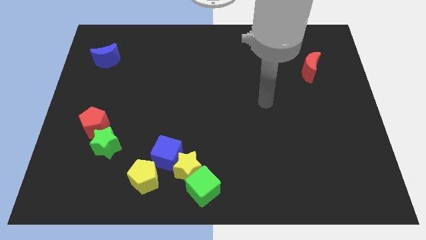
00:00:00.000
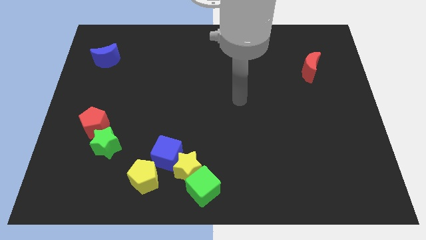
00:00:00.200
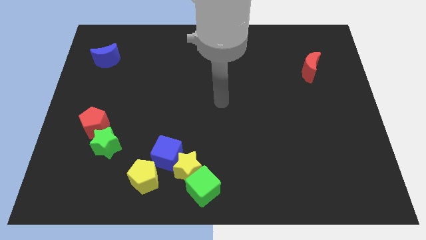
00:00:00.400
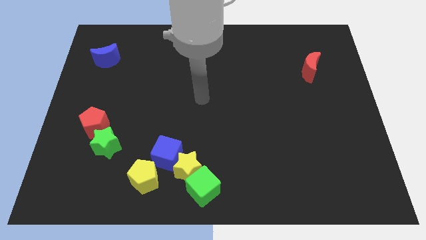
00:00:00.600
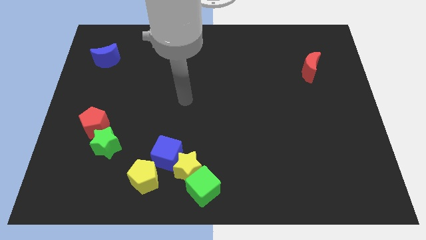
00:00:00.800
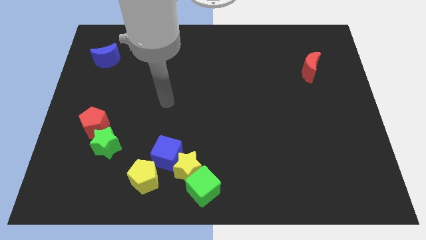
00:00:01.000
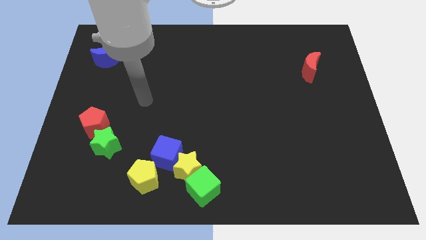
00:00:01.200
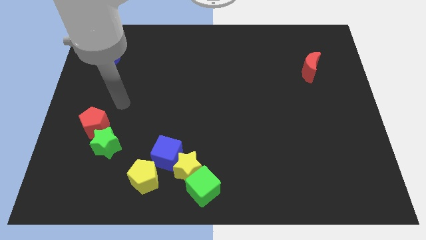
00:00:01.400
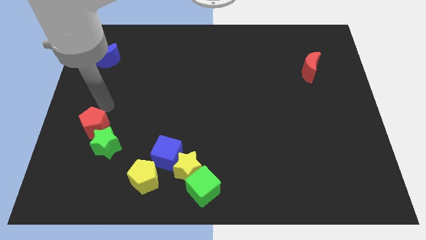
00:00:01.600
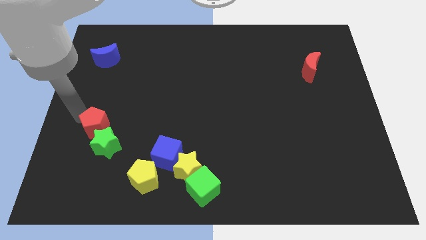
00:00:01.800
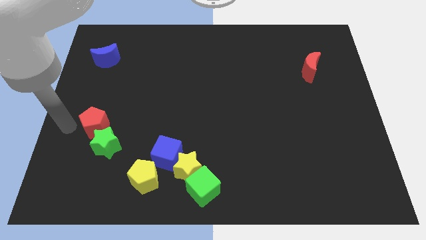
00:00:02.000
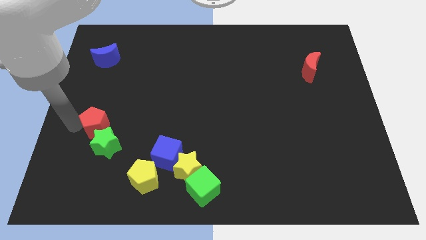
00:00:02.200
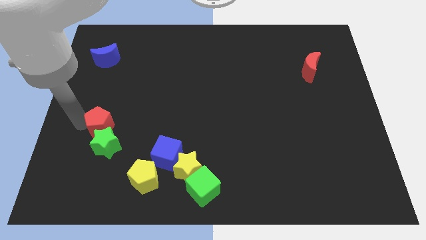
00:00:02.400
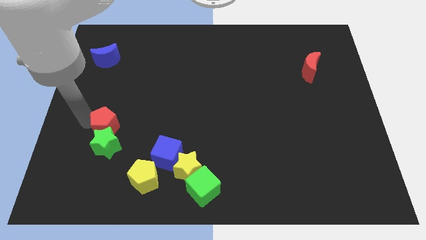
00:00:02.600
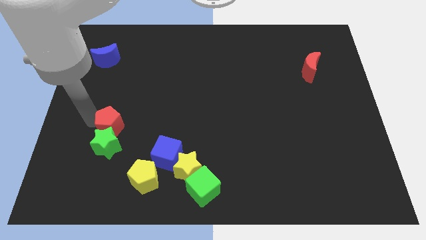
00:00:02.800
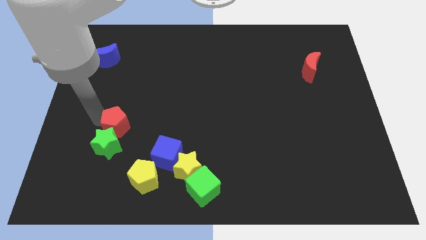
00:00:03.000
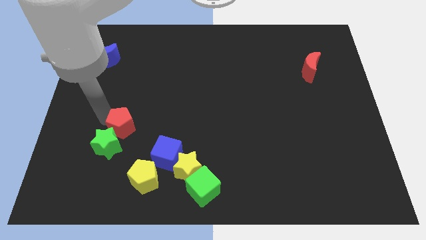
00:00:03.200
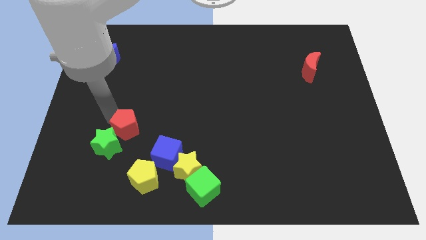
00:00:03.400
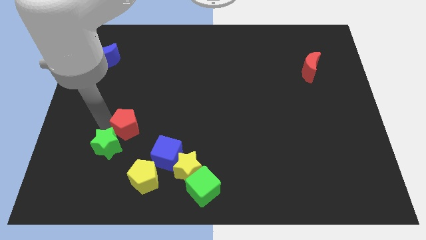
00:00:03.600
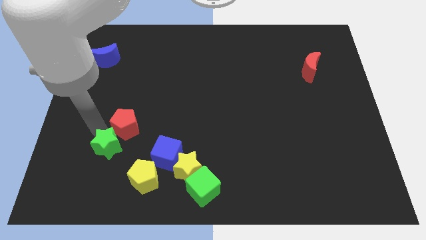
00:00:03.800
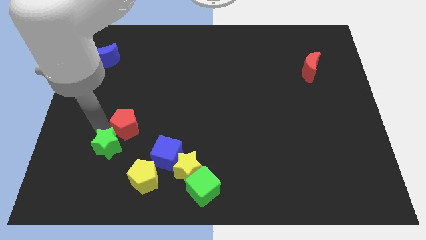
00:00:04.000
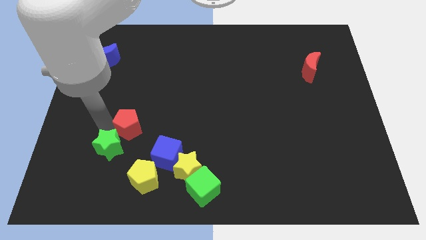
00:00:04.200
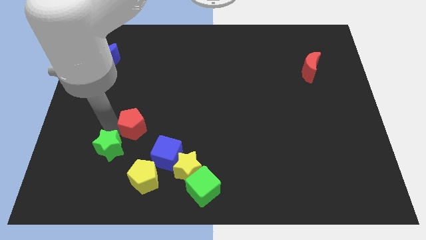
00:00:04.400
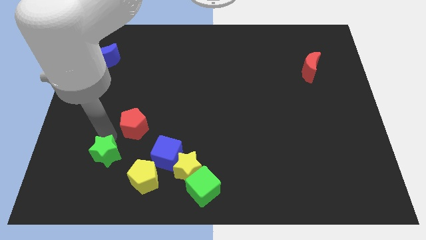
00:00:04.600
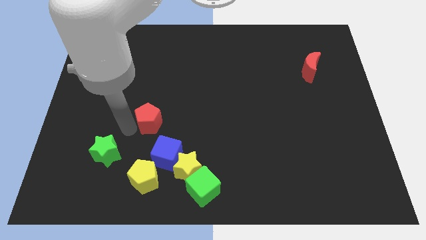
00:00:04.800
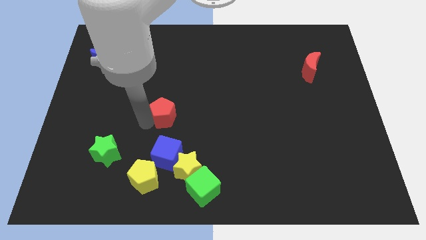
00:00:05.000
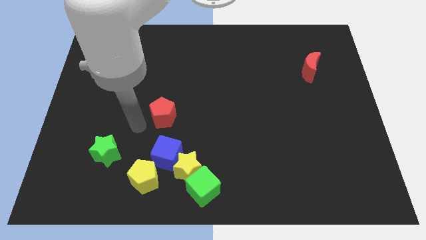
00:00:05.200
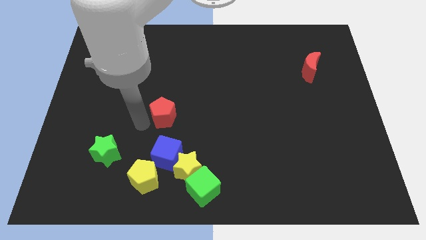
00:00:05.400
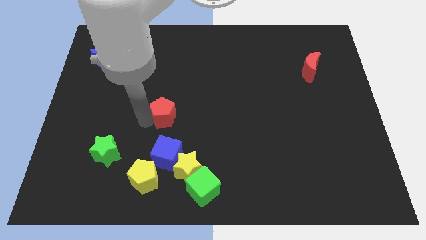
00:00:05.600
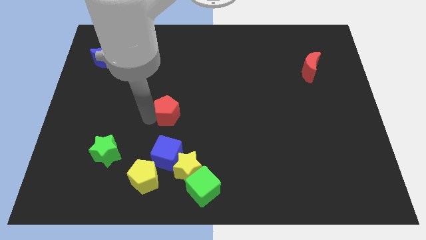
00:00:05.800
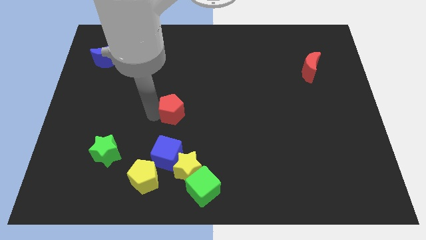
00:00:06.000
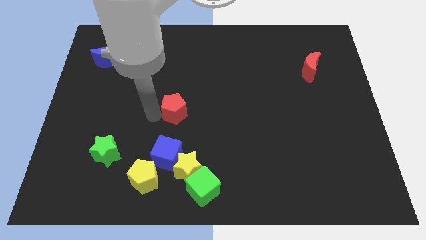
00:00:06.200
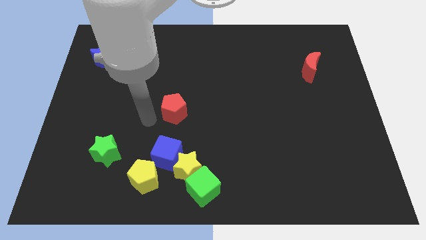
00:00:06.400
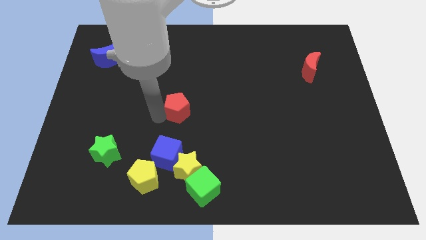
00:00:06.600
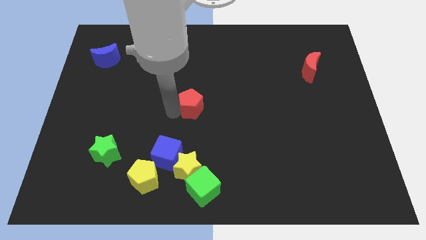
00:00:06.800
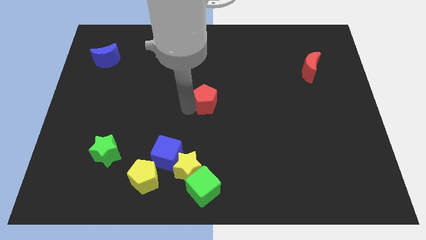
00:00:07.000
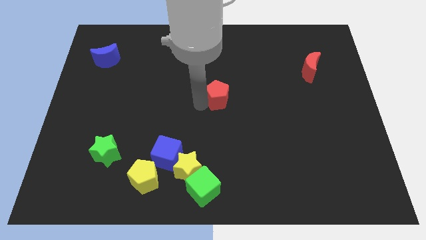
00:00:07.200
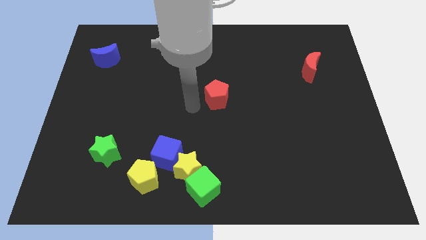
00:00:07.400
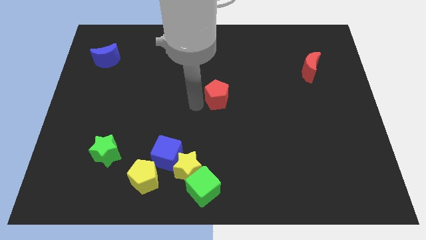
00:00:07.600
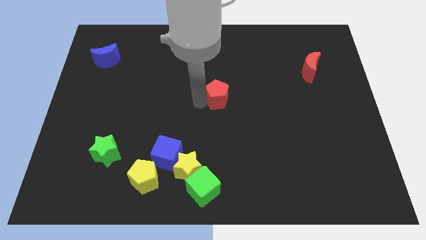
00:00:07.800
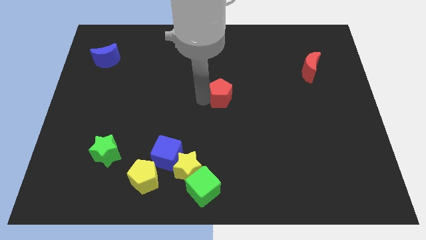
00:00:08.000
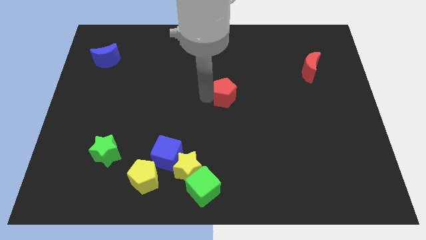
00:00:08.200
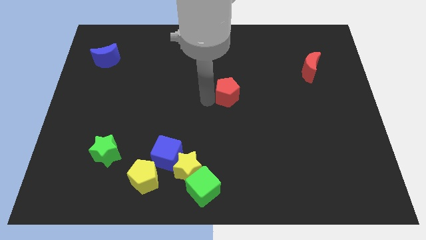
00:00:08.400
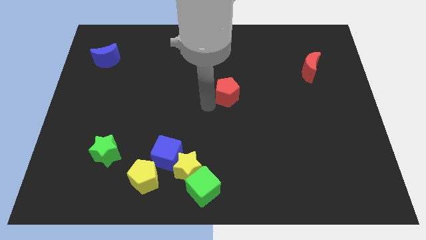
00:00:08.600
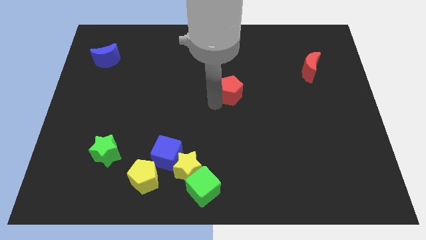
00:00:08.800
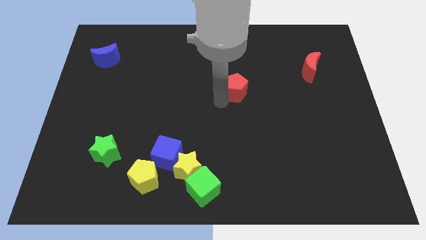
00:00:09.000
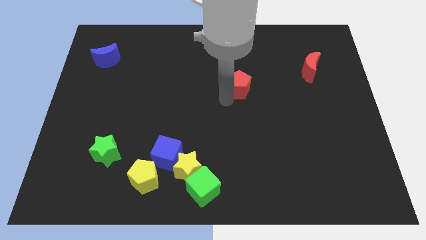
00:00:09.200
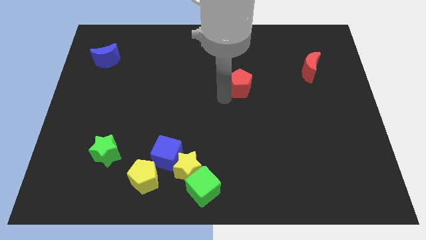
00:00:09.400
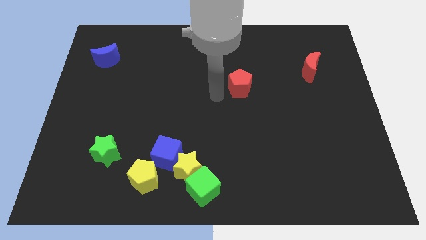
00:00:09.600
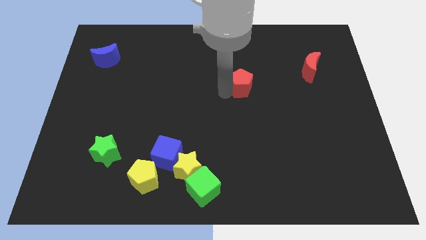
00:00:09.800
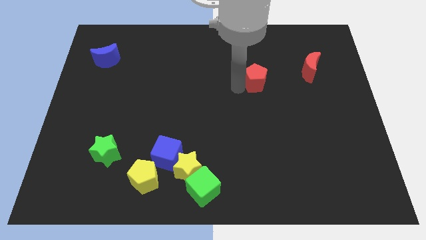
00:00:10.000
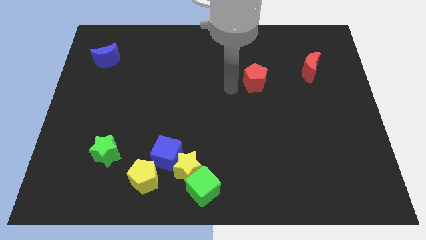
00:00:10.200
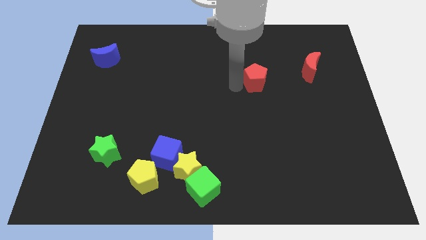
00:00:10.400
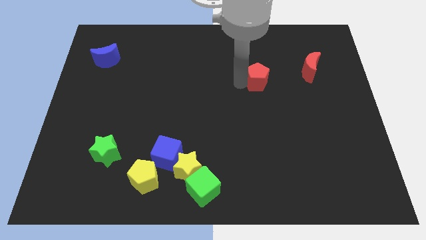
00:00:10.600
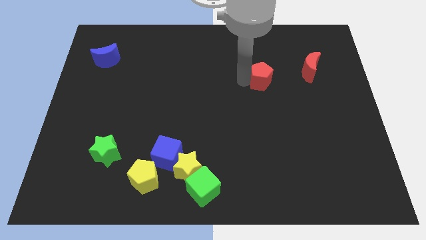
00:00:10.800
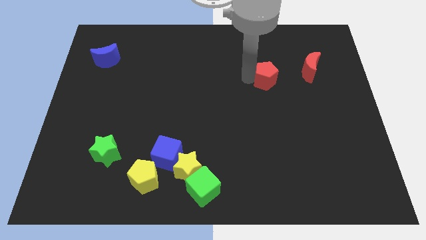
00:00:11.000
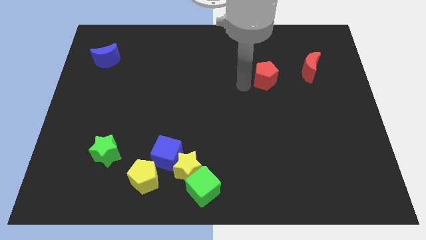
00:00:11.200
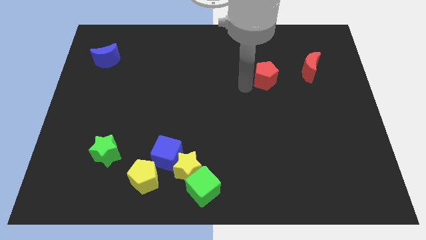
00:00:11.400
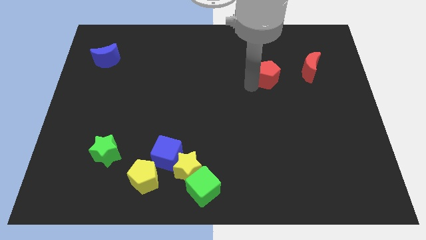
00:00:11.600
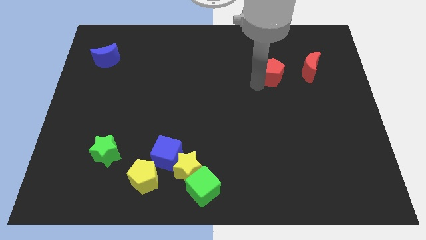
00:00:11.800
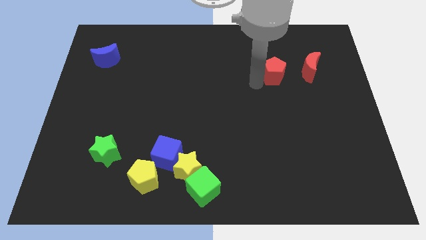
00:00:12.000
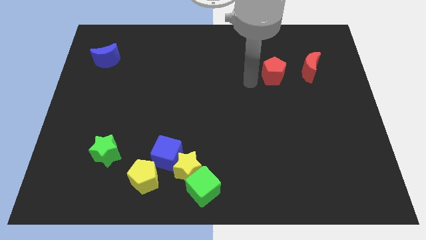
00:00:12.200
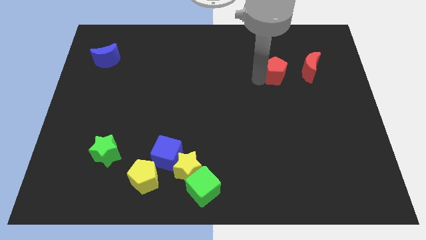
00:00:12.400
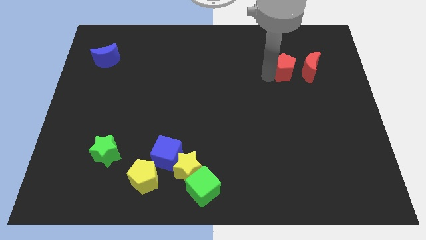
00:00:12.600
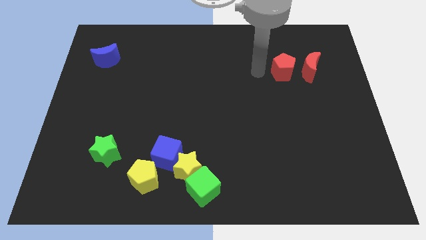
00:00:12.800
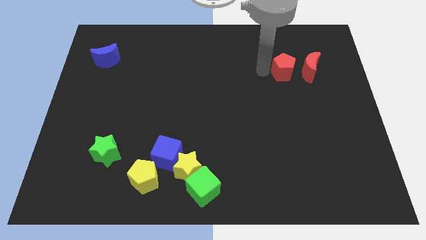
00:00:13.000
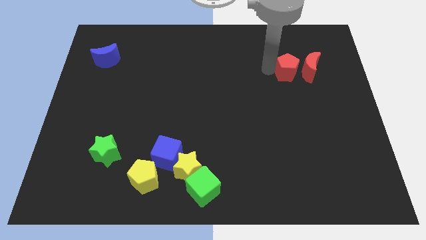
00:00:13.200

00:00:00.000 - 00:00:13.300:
push the red pentagon close to the red moon
